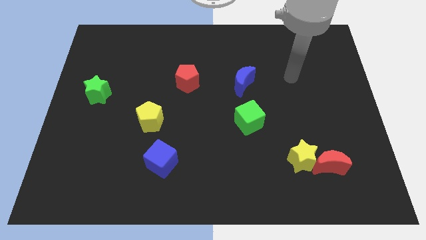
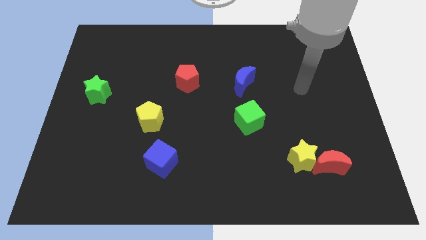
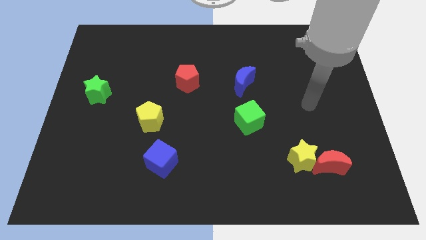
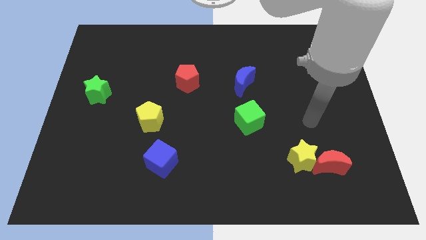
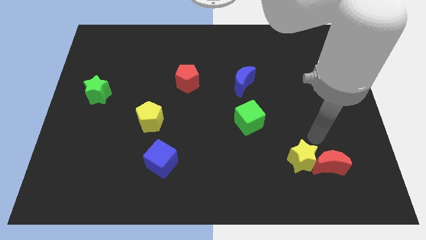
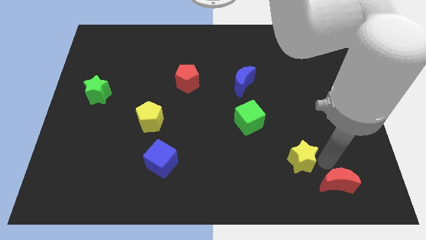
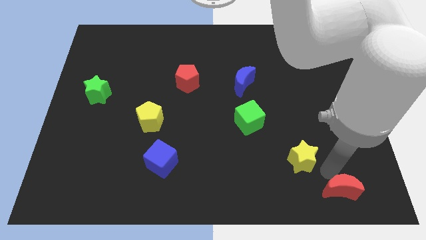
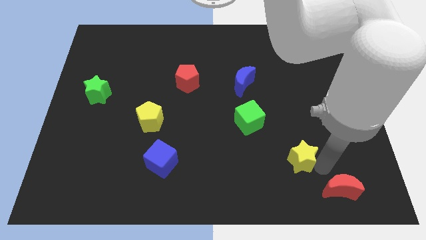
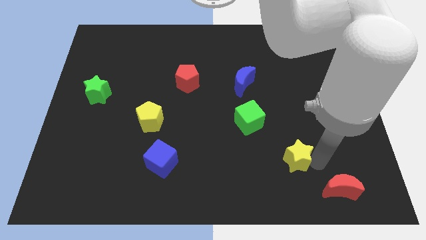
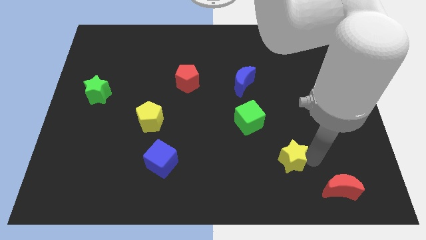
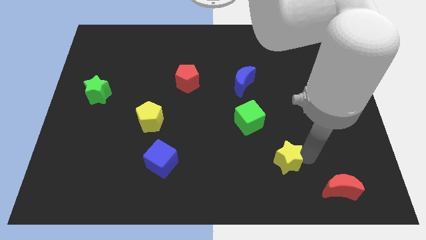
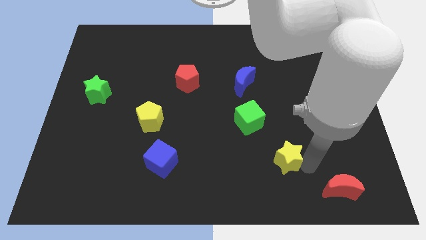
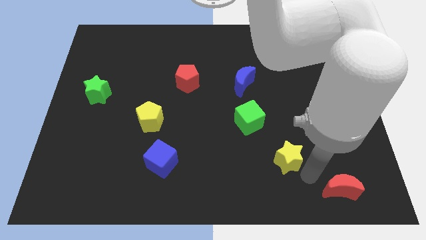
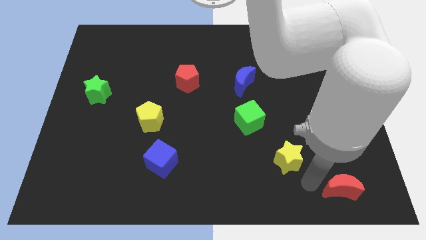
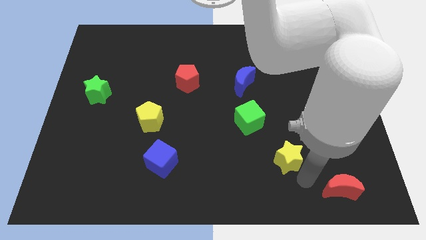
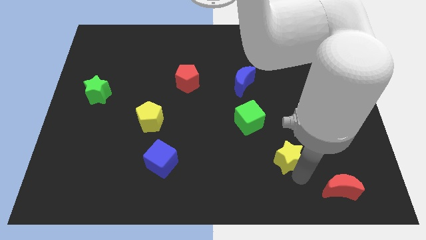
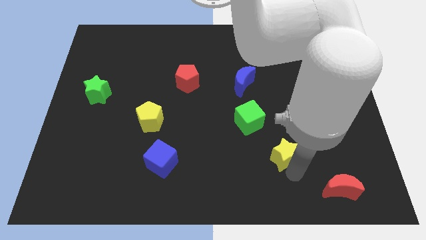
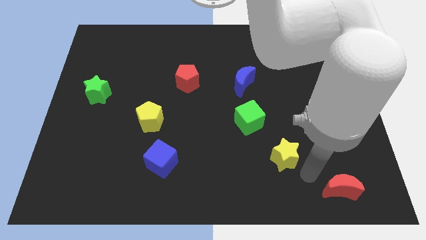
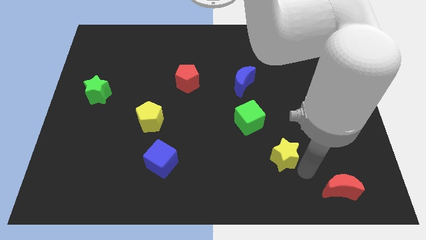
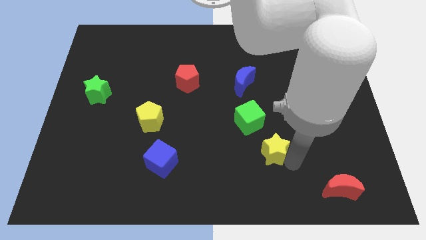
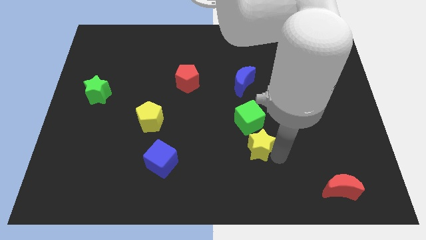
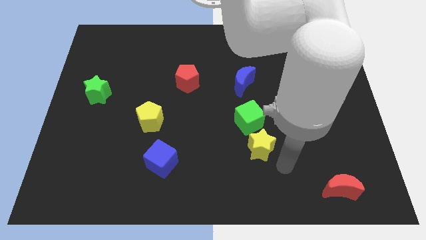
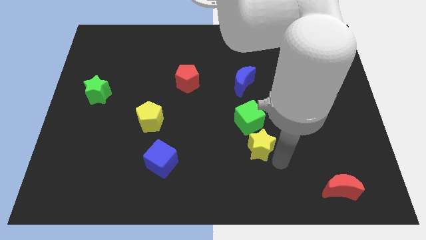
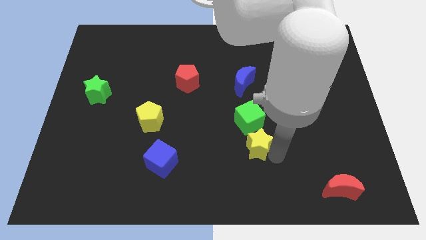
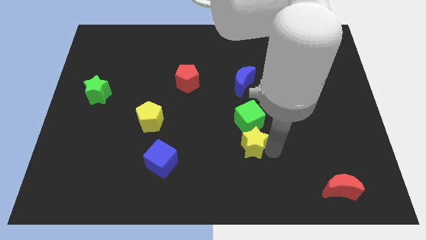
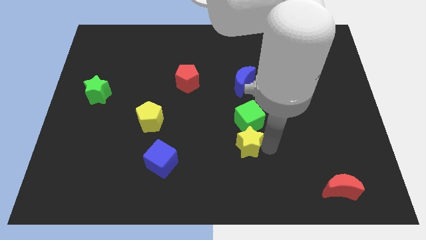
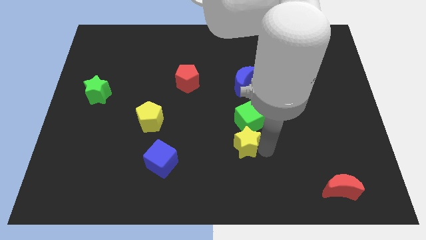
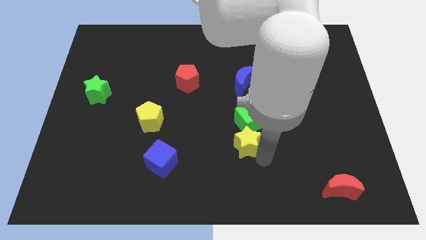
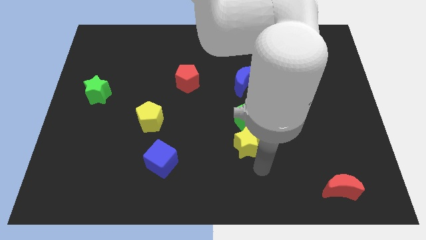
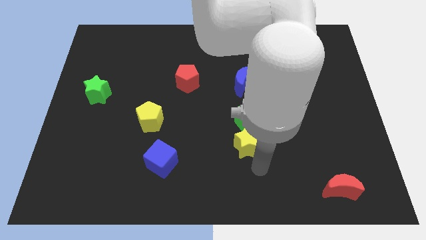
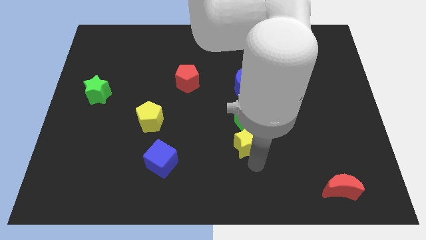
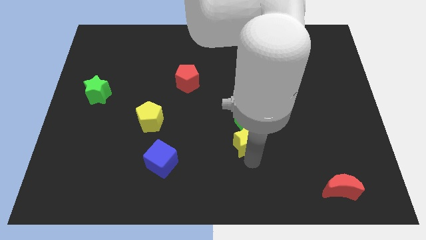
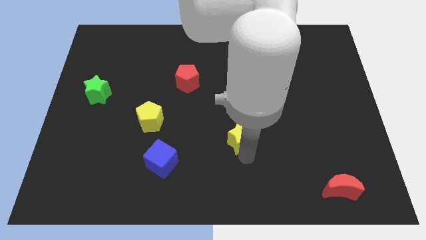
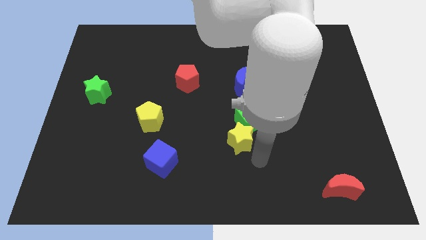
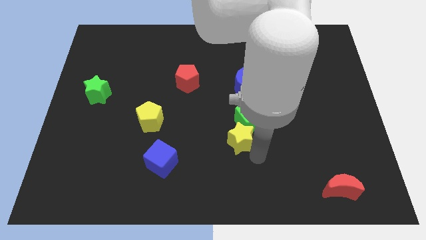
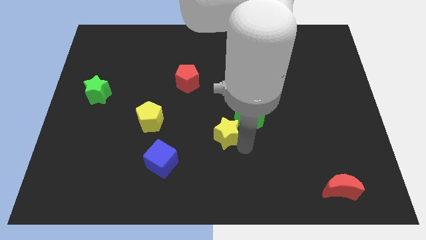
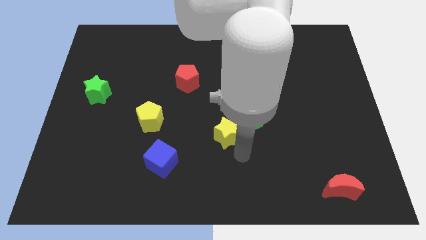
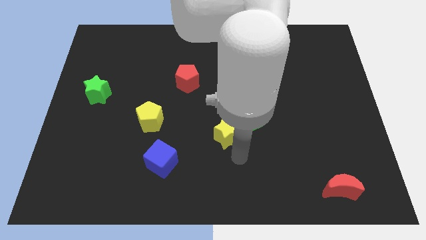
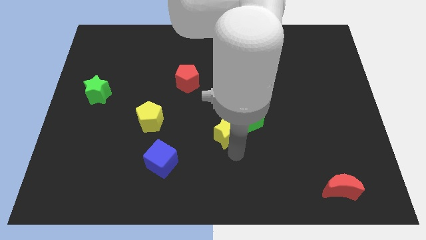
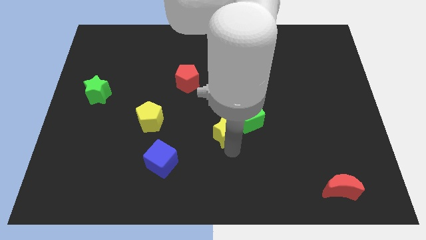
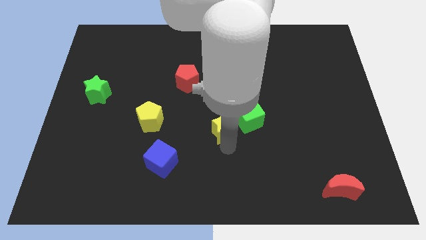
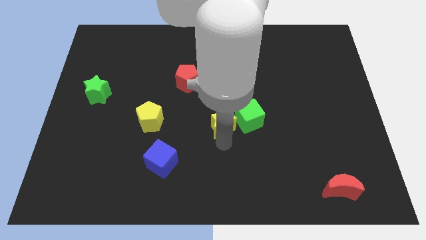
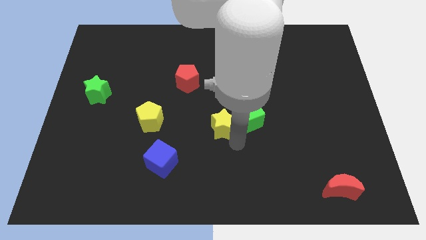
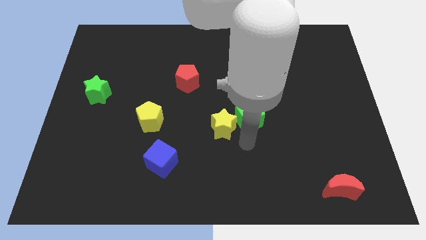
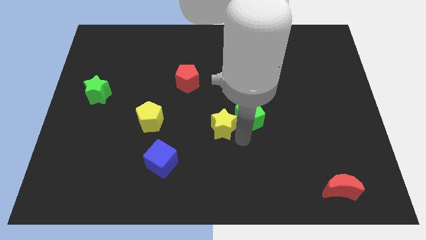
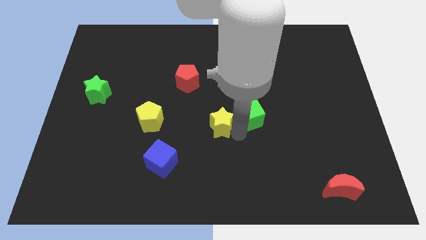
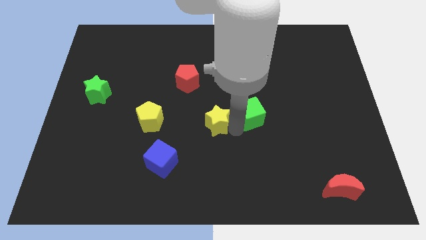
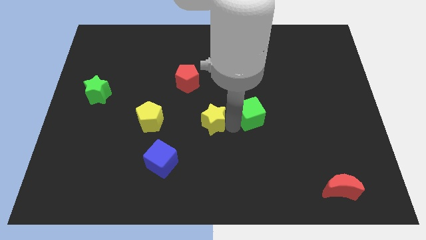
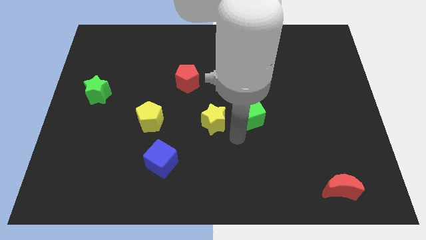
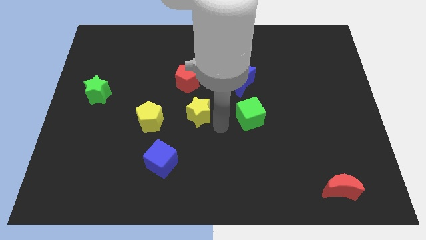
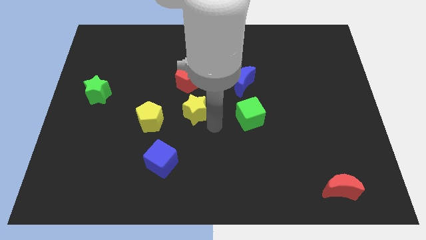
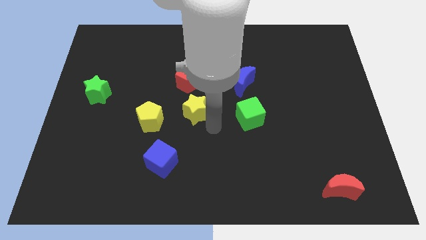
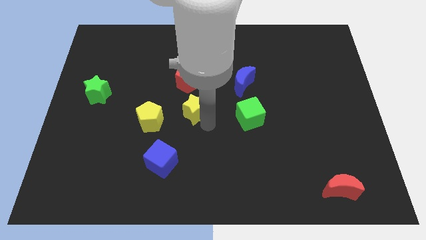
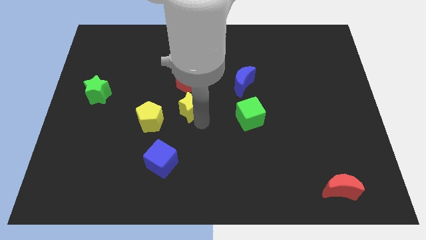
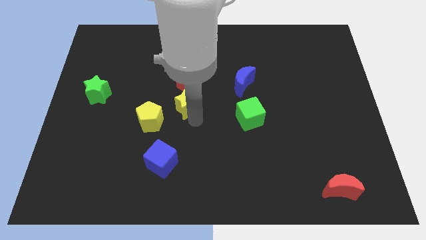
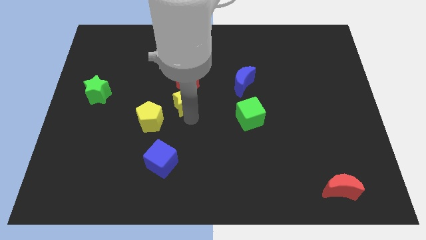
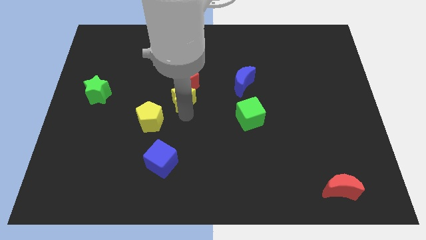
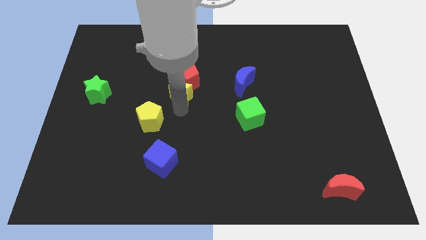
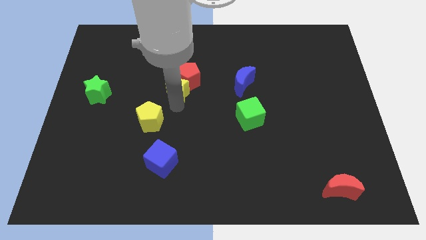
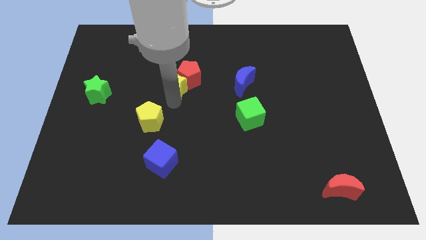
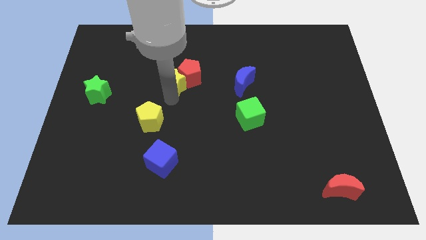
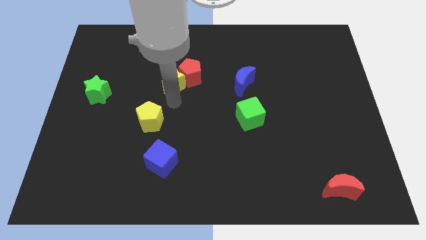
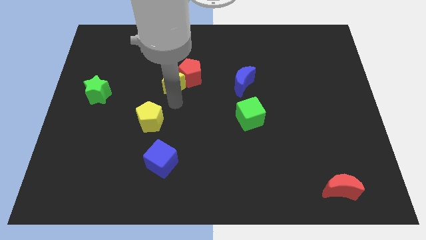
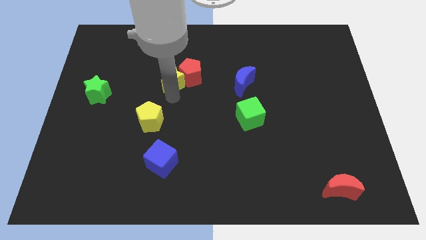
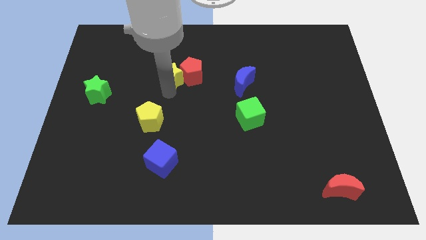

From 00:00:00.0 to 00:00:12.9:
slide the yellow star to the top left side of the red pentagon
